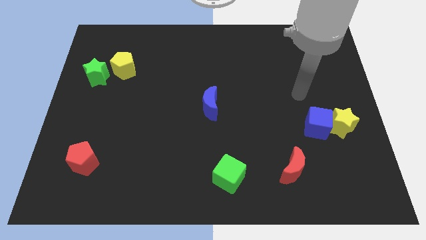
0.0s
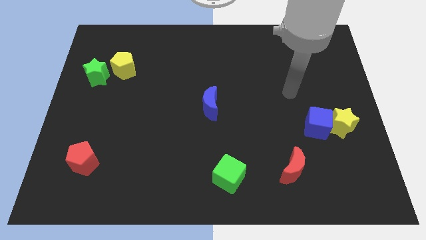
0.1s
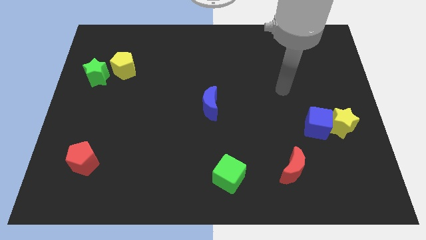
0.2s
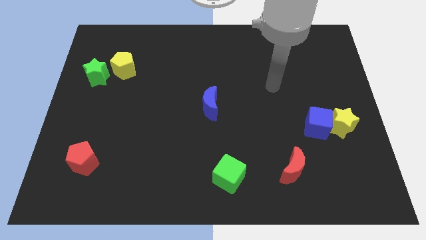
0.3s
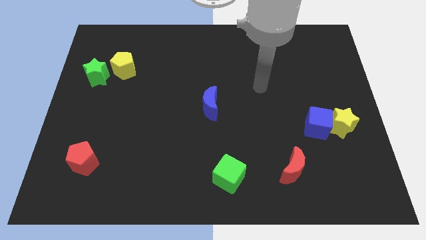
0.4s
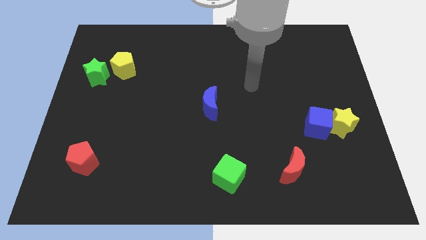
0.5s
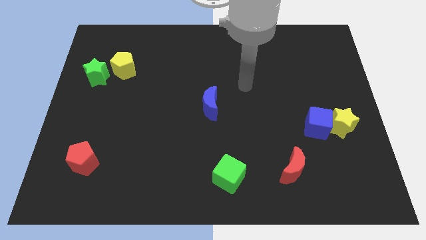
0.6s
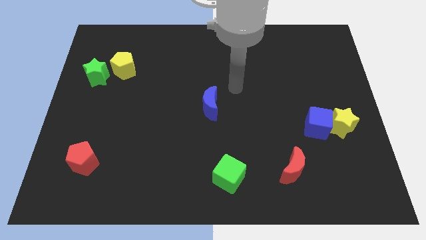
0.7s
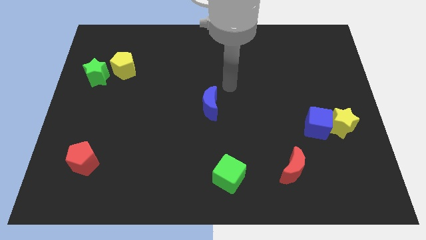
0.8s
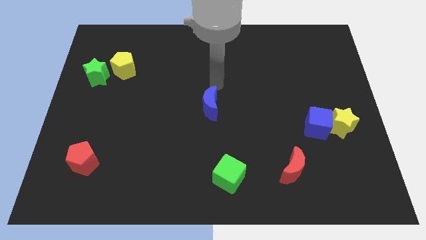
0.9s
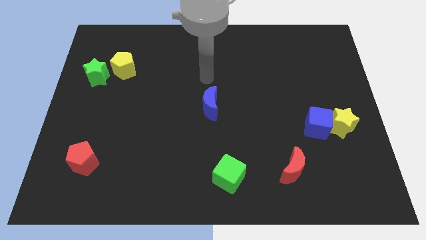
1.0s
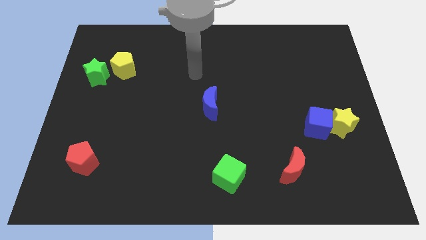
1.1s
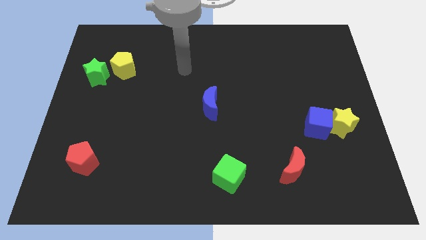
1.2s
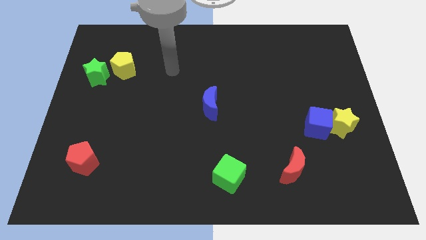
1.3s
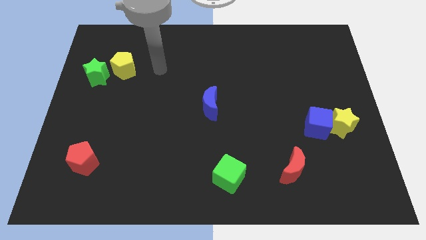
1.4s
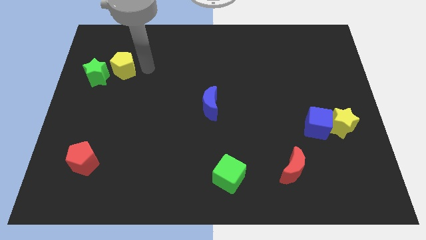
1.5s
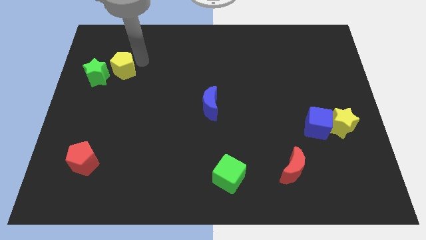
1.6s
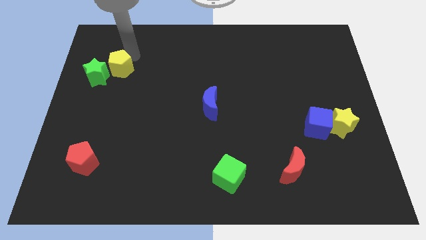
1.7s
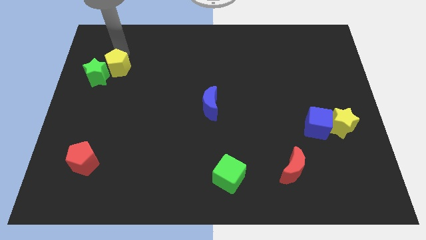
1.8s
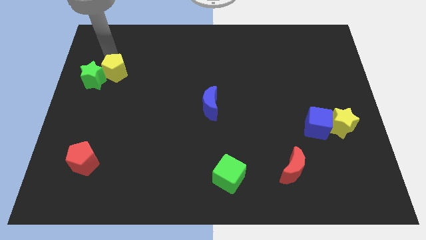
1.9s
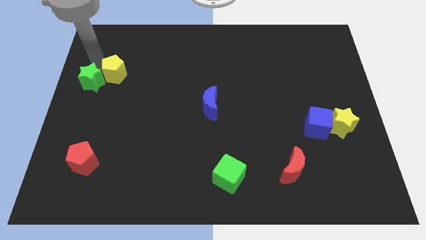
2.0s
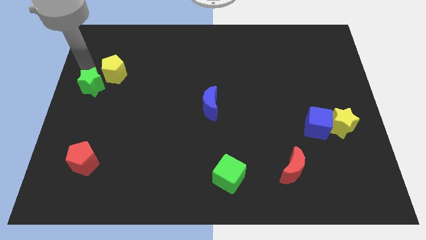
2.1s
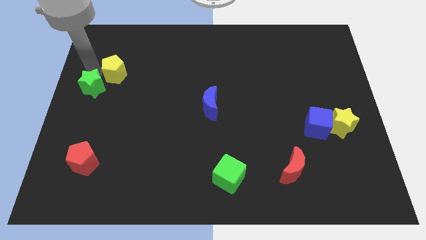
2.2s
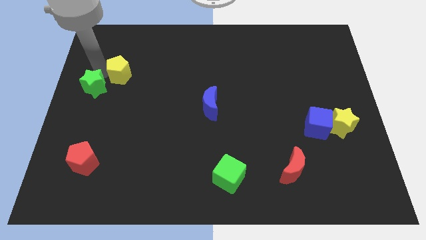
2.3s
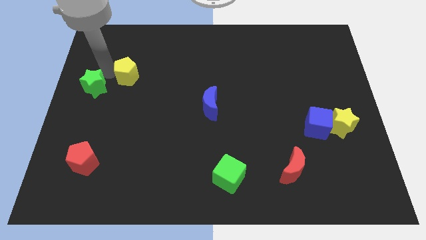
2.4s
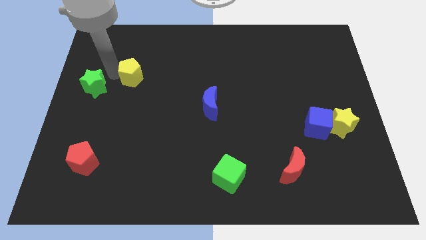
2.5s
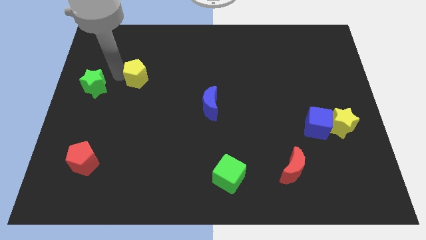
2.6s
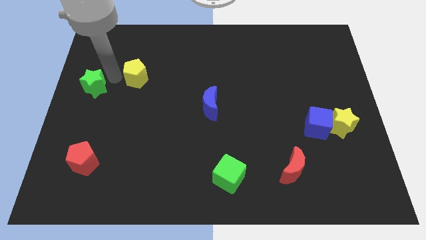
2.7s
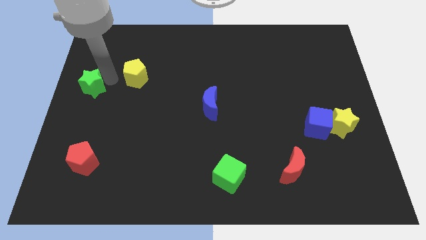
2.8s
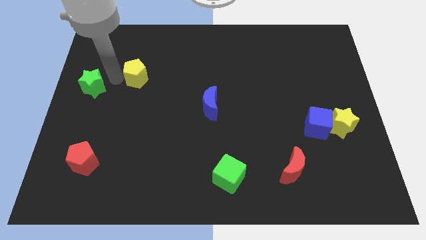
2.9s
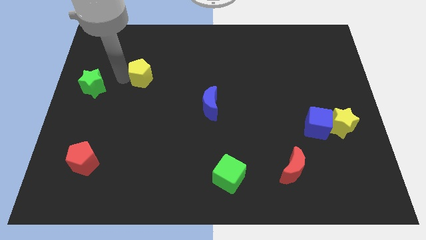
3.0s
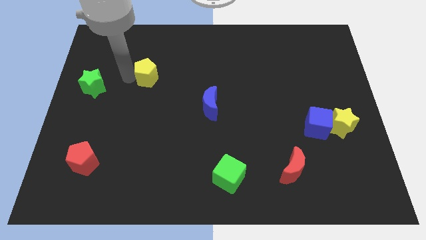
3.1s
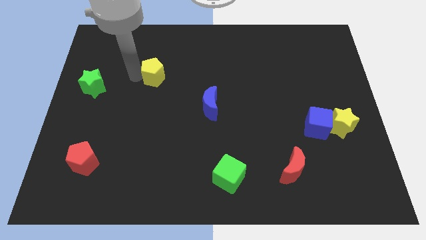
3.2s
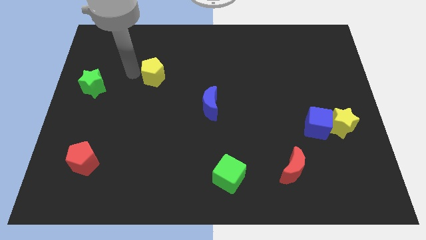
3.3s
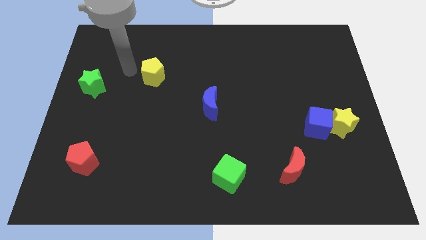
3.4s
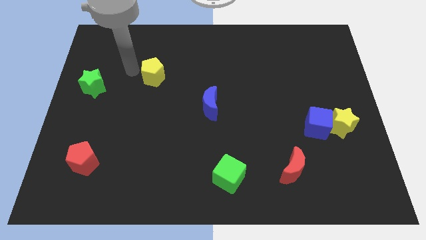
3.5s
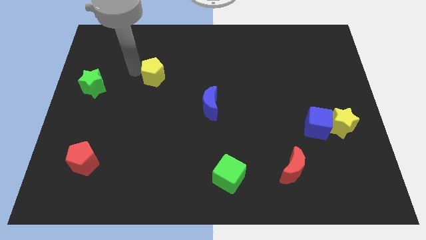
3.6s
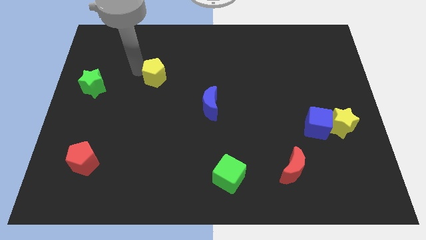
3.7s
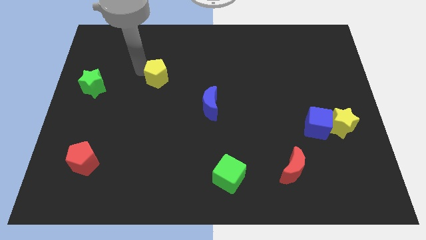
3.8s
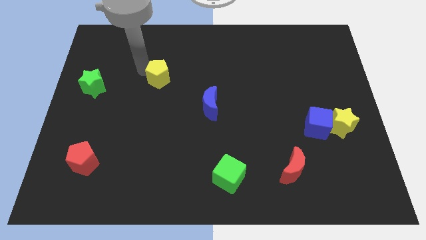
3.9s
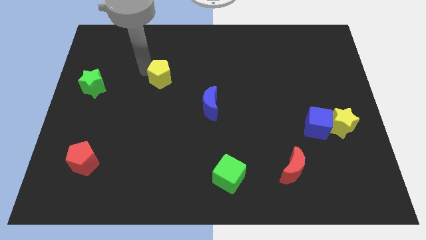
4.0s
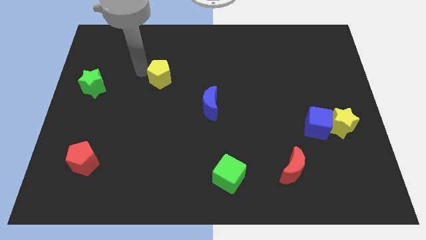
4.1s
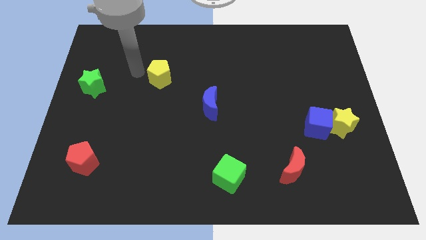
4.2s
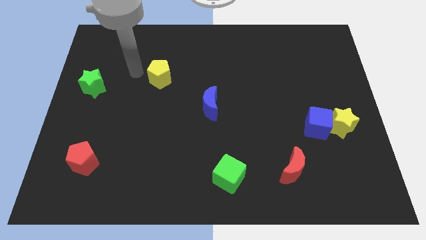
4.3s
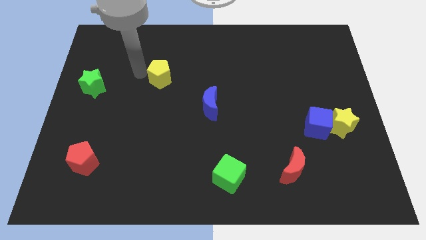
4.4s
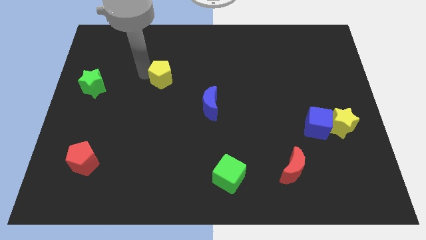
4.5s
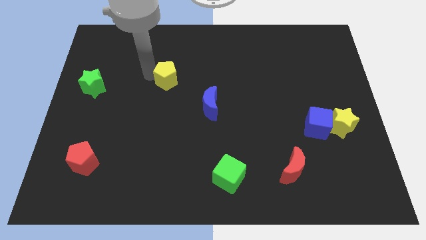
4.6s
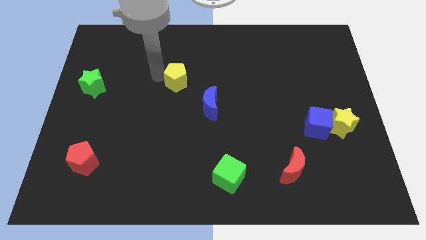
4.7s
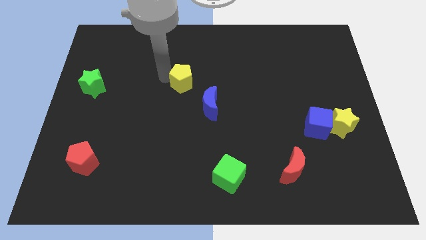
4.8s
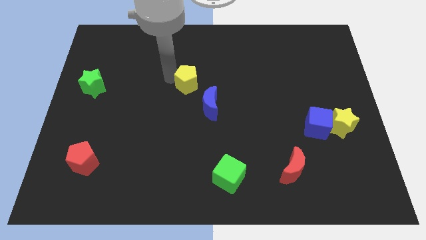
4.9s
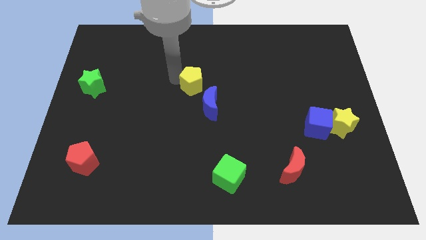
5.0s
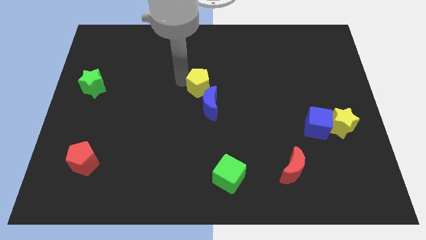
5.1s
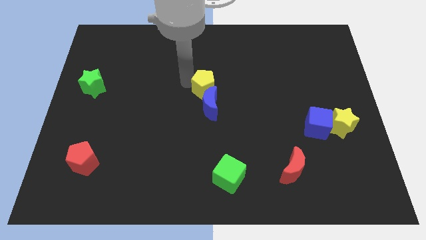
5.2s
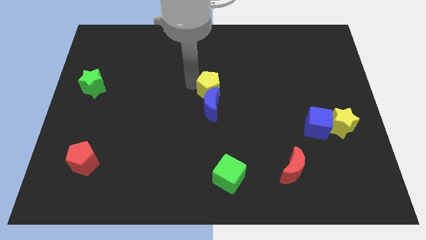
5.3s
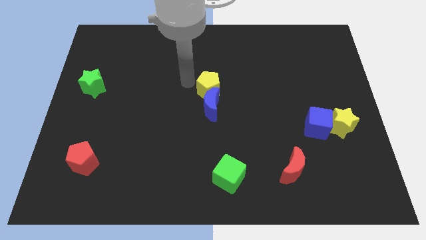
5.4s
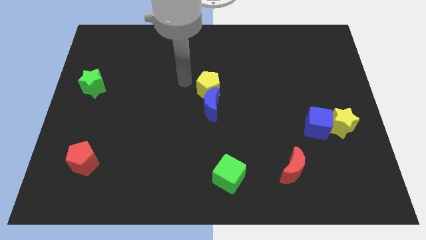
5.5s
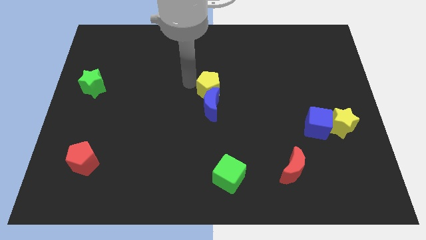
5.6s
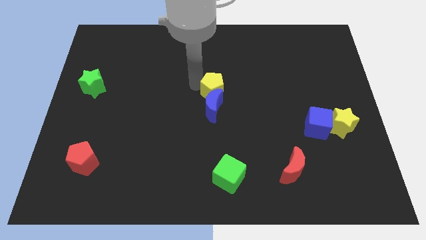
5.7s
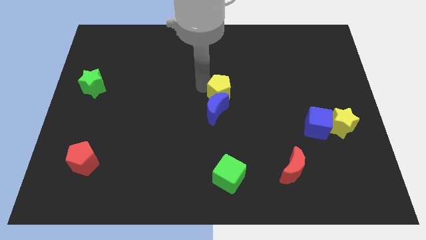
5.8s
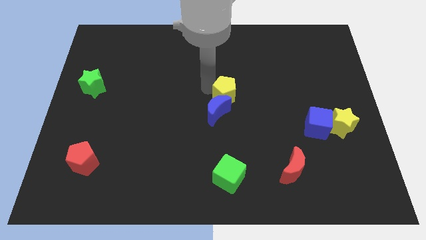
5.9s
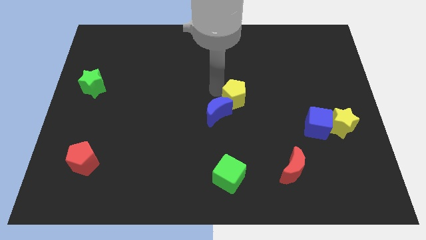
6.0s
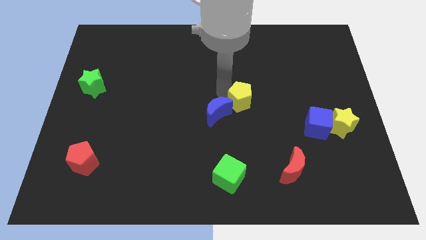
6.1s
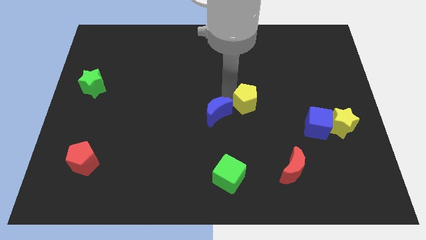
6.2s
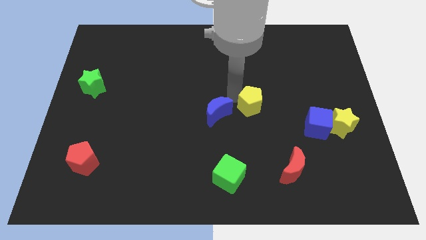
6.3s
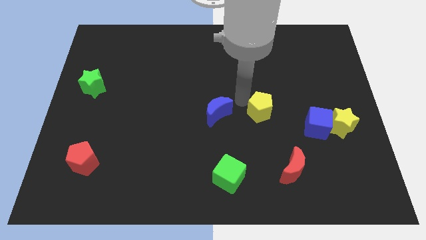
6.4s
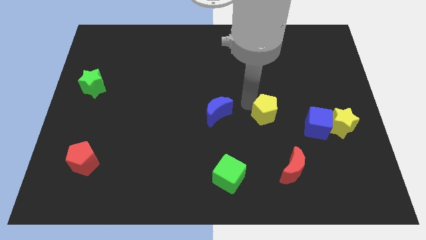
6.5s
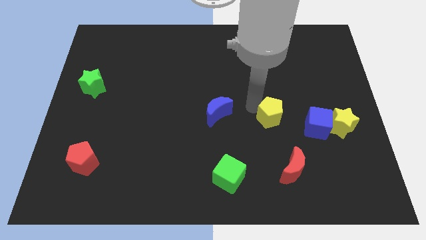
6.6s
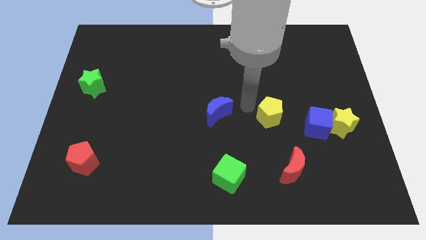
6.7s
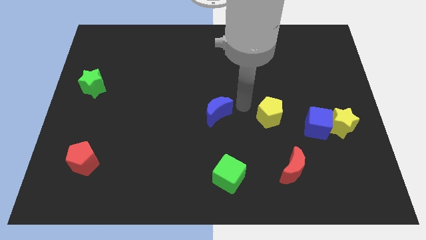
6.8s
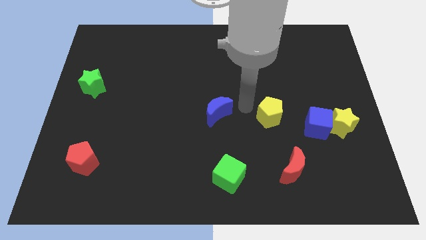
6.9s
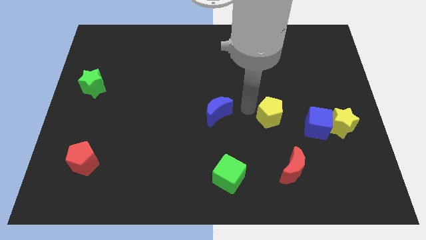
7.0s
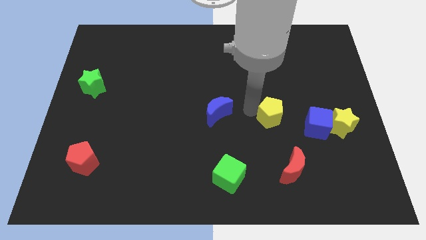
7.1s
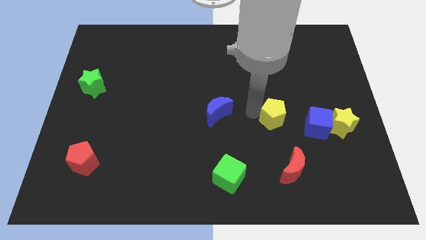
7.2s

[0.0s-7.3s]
push the yellow pentagon just left of the yellow star

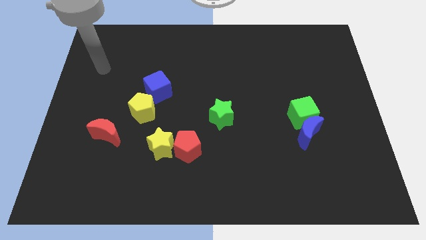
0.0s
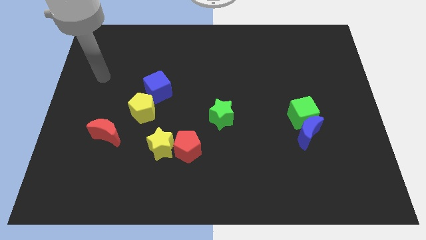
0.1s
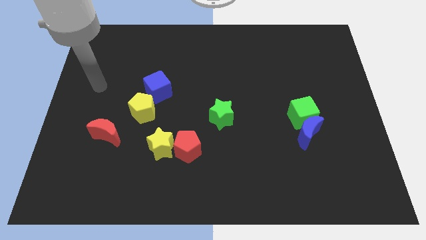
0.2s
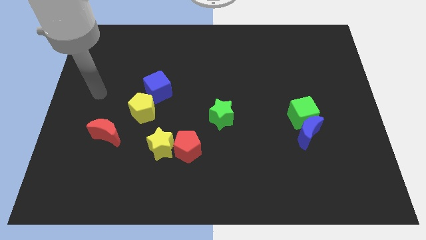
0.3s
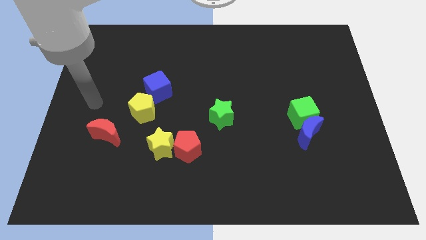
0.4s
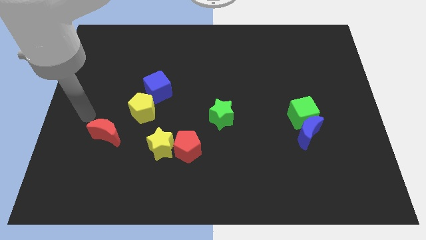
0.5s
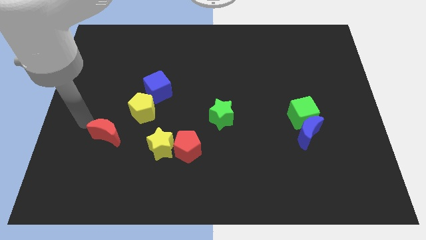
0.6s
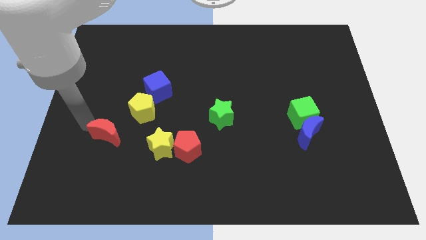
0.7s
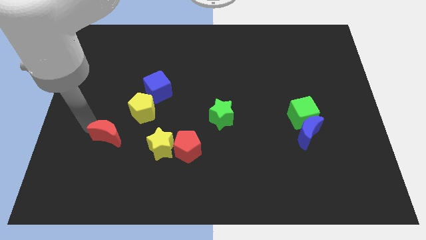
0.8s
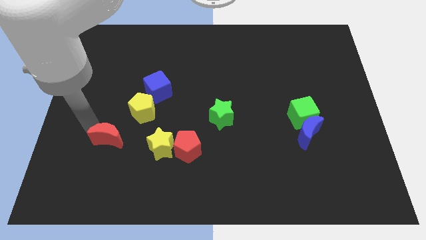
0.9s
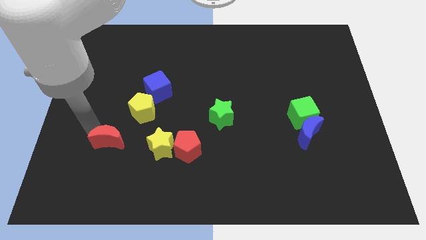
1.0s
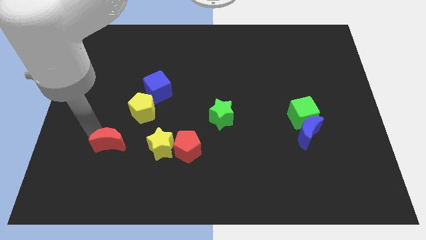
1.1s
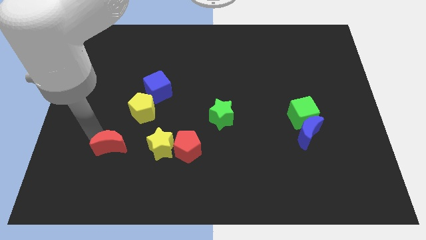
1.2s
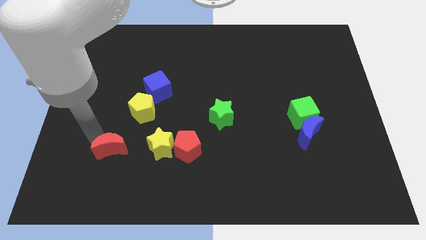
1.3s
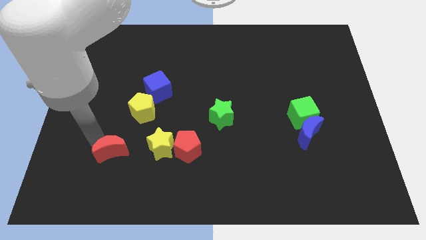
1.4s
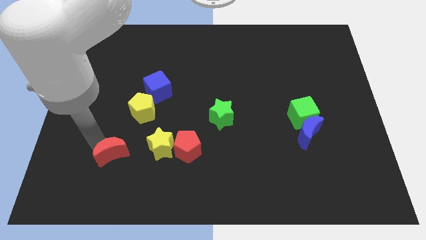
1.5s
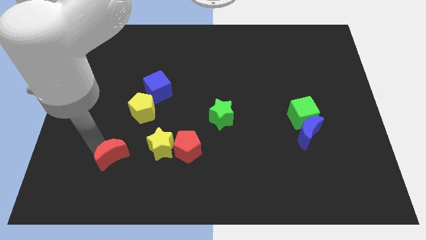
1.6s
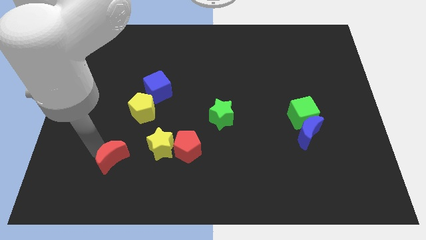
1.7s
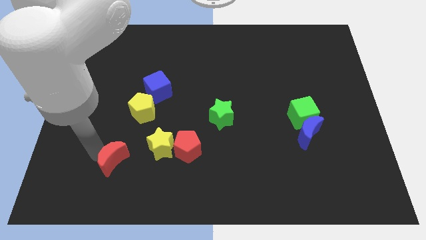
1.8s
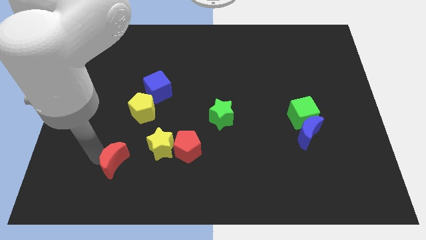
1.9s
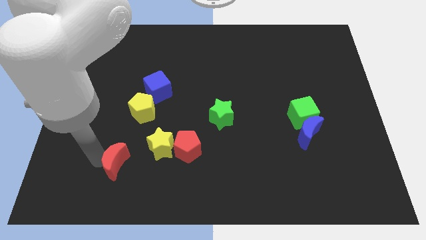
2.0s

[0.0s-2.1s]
push the red moon to the bottom of the yellow pentagon
